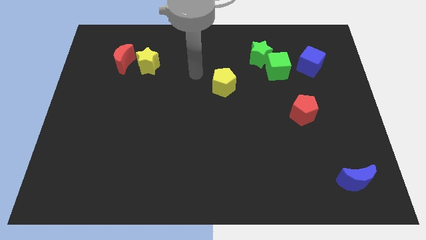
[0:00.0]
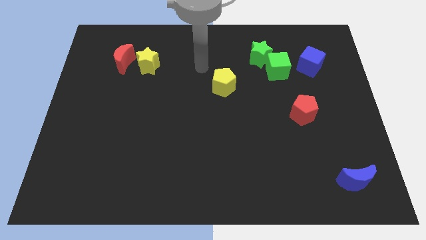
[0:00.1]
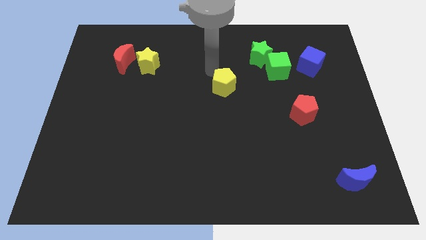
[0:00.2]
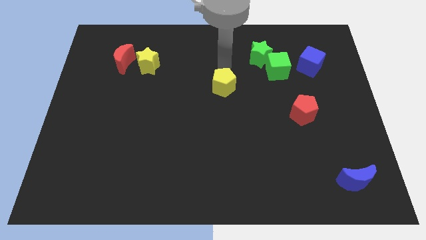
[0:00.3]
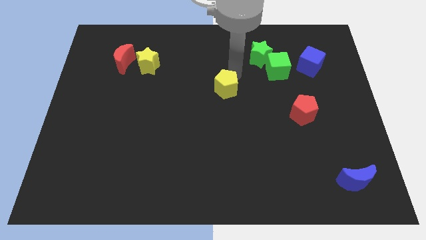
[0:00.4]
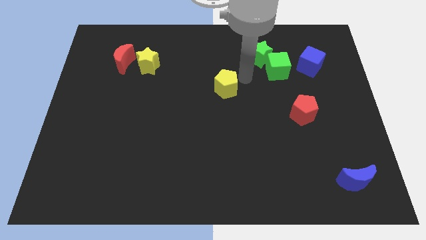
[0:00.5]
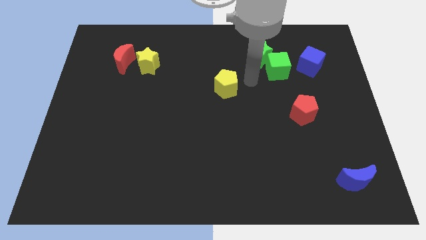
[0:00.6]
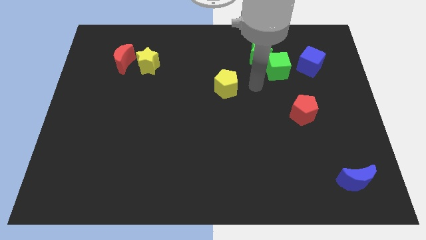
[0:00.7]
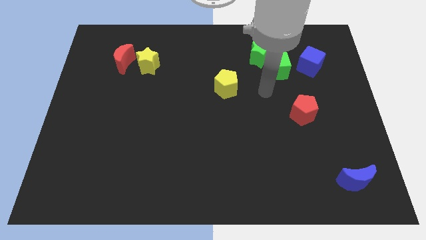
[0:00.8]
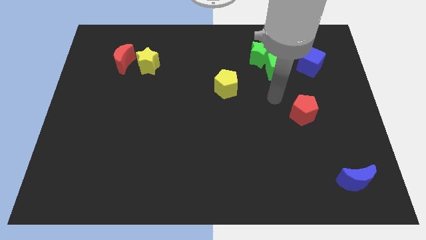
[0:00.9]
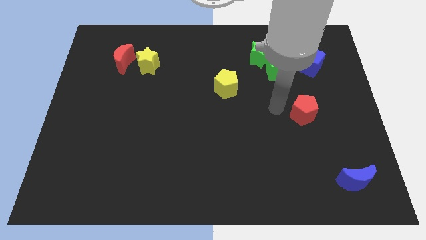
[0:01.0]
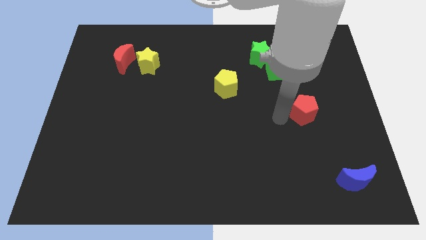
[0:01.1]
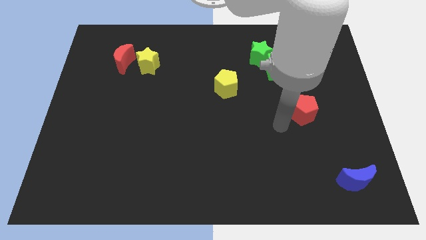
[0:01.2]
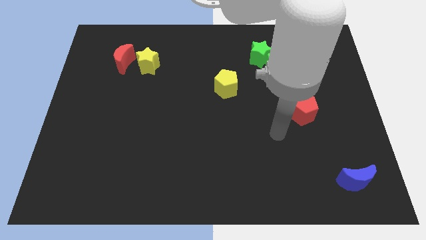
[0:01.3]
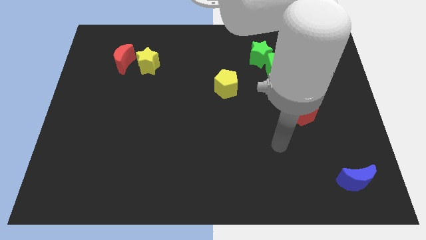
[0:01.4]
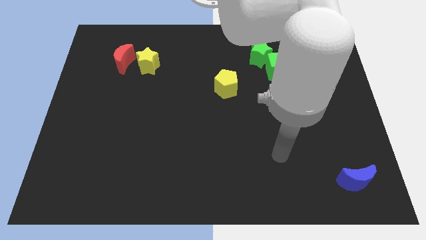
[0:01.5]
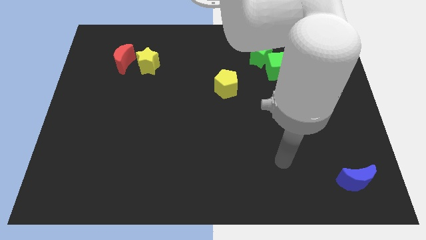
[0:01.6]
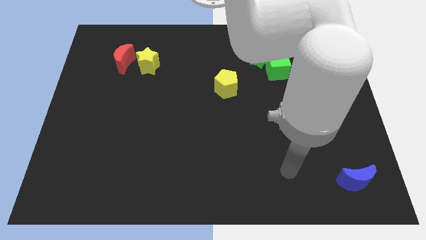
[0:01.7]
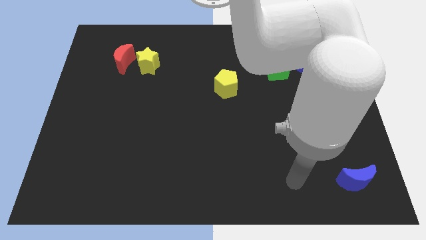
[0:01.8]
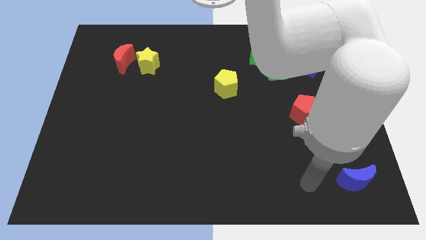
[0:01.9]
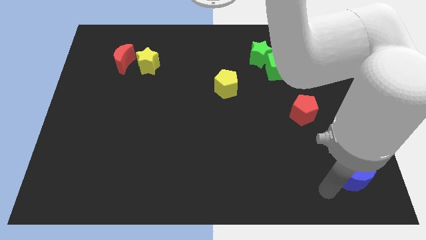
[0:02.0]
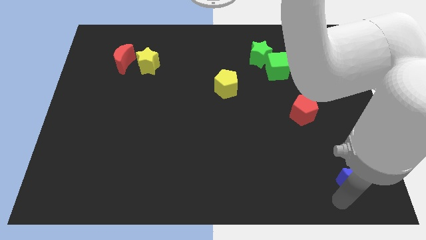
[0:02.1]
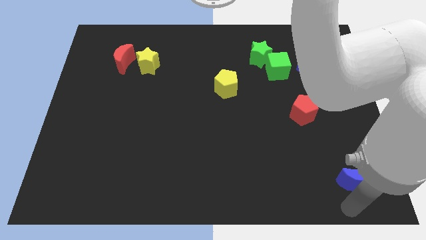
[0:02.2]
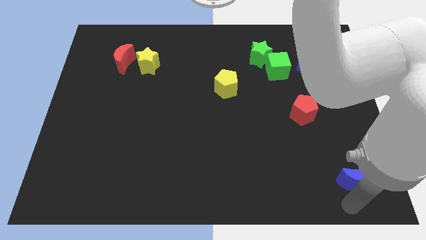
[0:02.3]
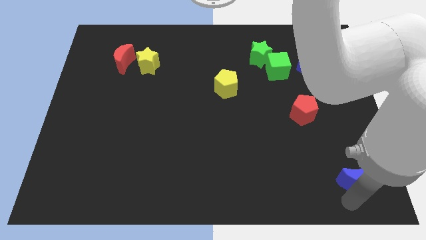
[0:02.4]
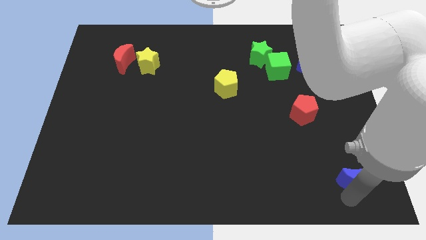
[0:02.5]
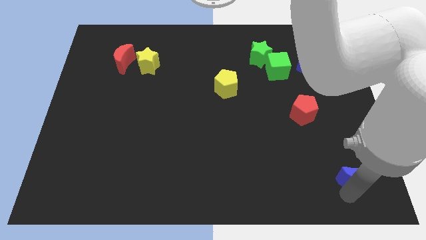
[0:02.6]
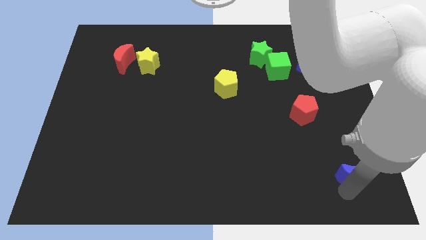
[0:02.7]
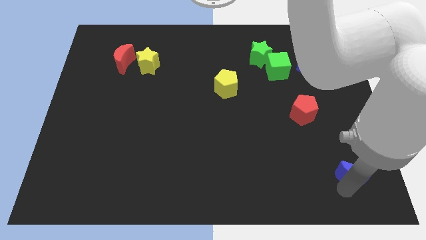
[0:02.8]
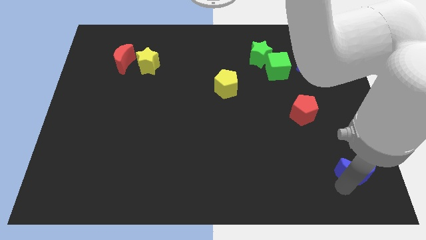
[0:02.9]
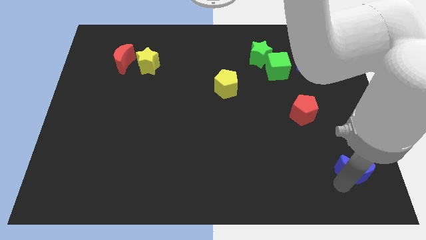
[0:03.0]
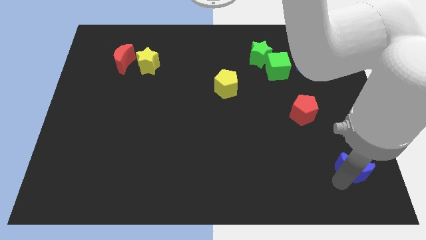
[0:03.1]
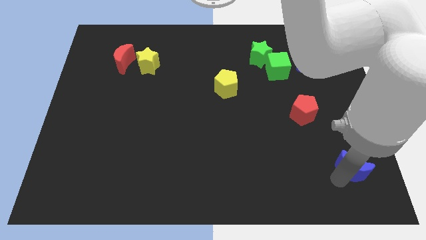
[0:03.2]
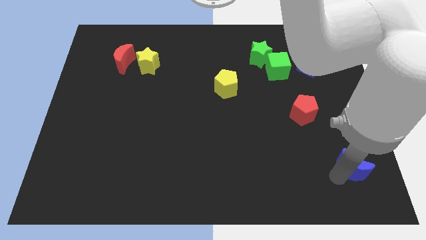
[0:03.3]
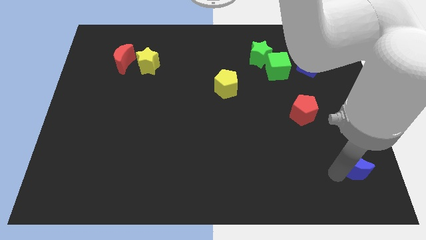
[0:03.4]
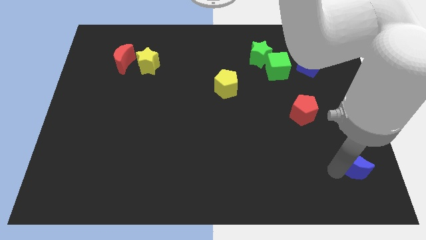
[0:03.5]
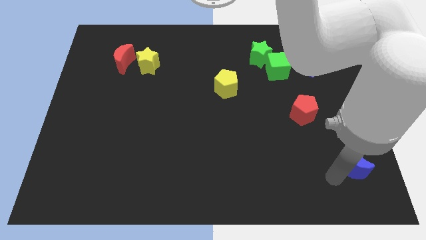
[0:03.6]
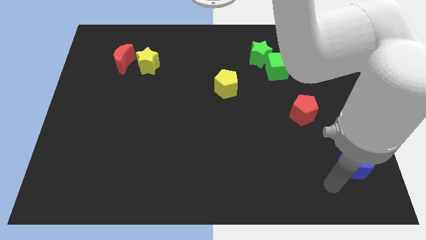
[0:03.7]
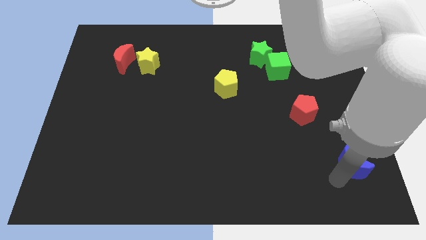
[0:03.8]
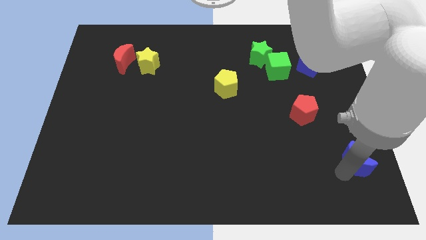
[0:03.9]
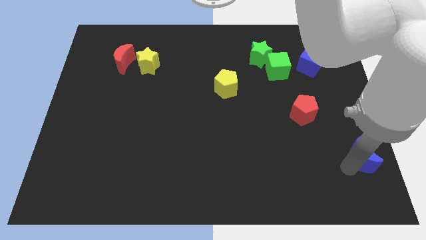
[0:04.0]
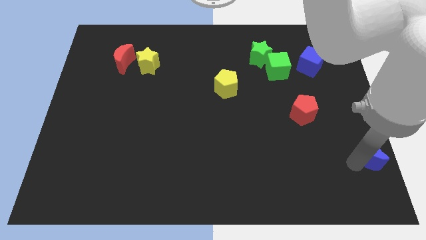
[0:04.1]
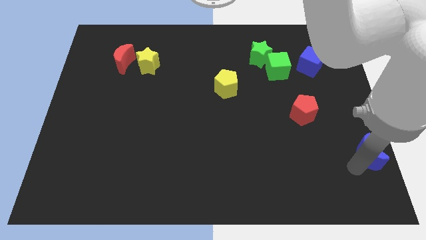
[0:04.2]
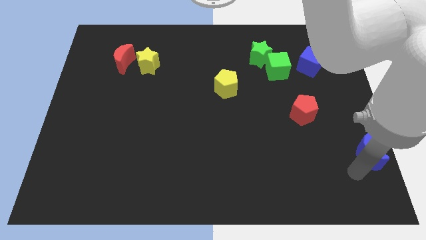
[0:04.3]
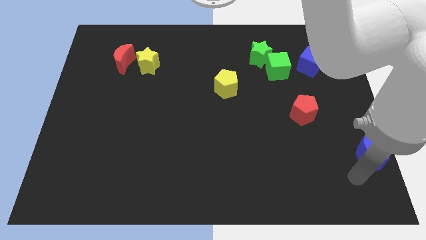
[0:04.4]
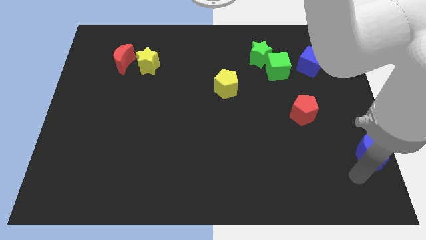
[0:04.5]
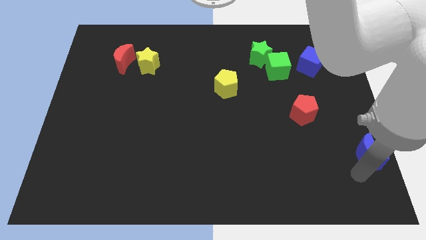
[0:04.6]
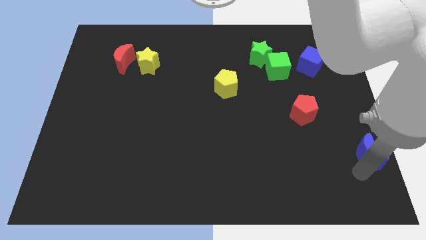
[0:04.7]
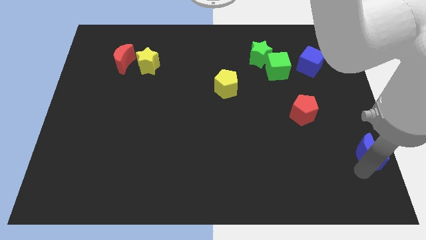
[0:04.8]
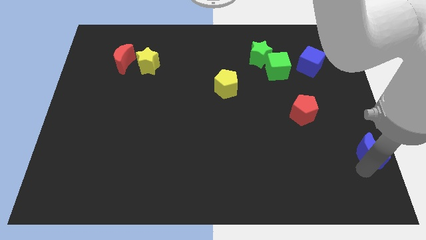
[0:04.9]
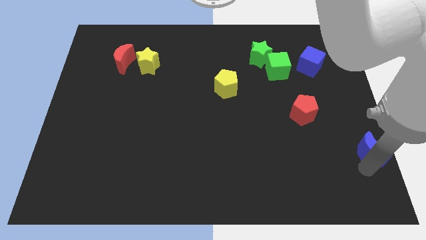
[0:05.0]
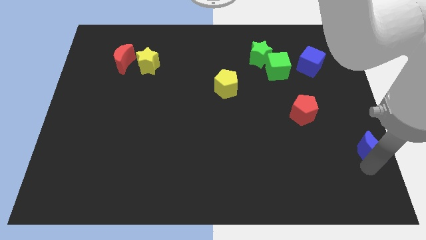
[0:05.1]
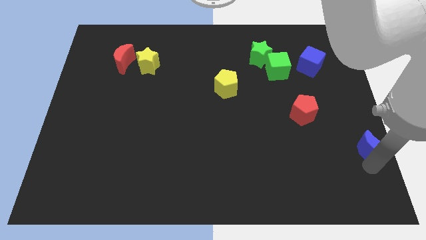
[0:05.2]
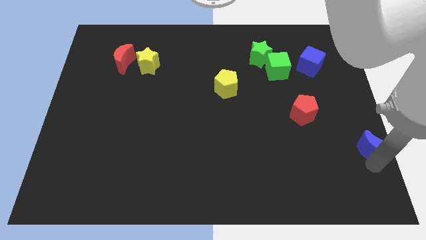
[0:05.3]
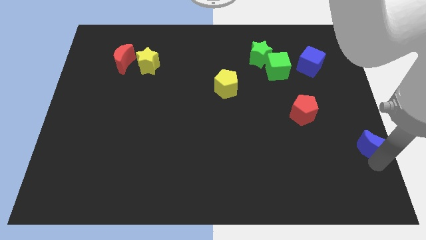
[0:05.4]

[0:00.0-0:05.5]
move the blue moon to the right side of the board

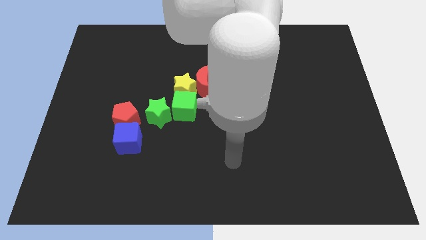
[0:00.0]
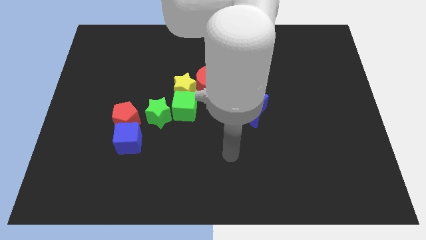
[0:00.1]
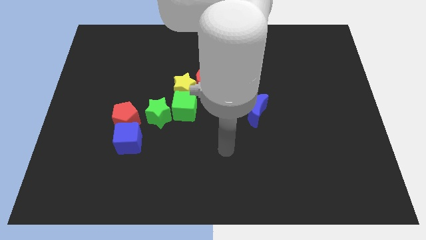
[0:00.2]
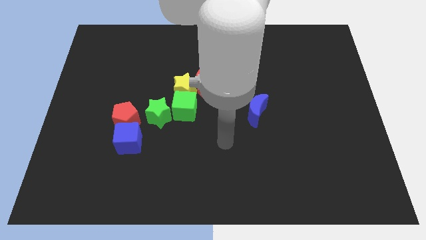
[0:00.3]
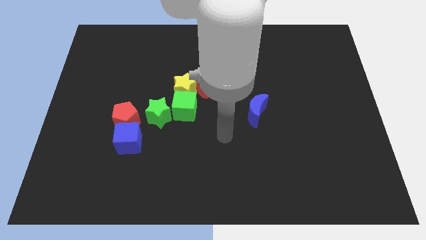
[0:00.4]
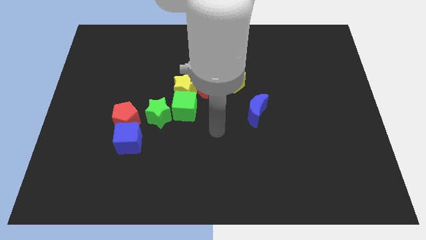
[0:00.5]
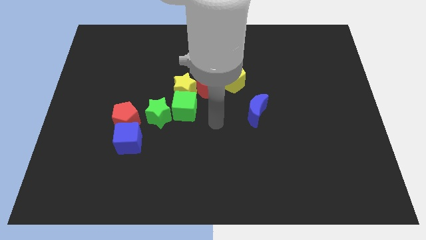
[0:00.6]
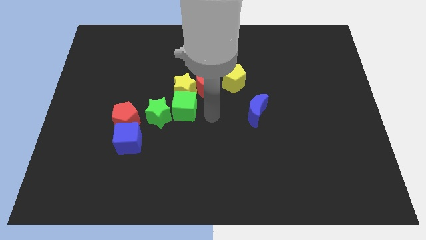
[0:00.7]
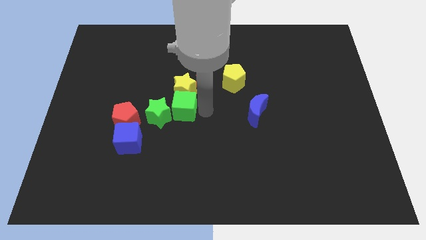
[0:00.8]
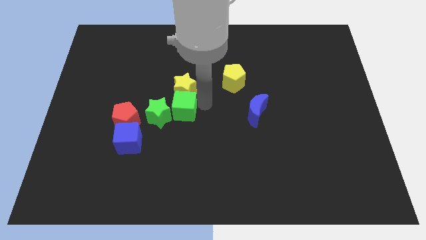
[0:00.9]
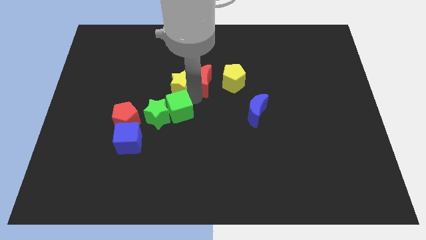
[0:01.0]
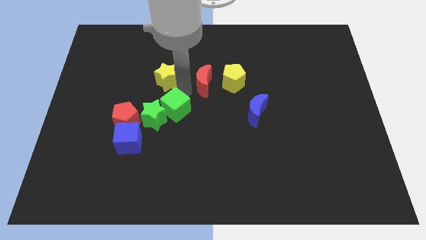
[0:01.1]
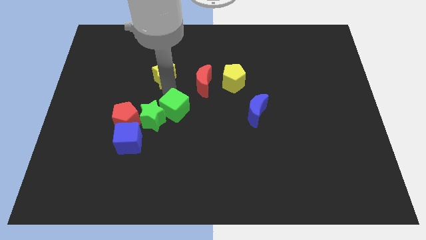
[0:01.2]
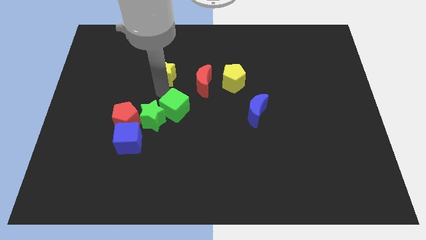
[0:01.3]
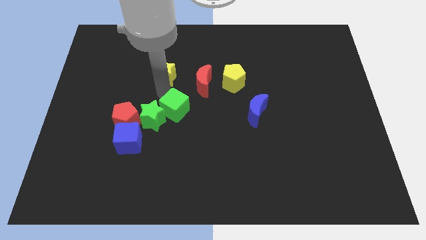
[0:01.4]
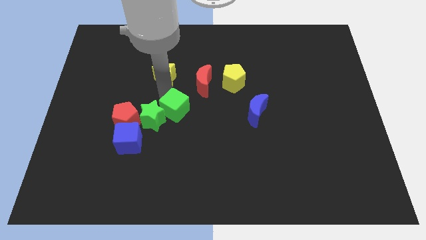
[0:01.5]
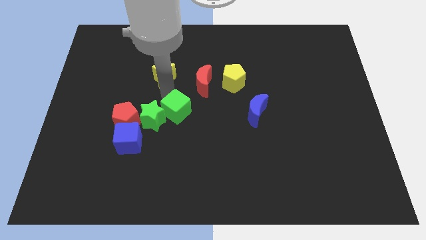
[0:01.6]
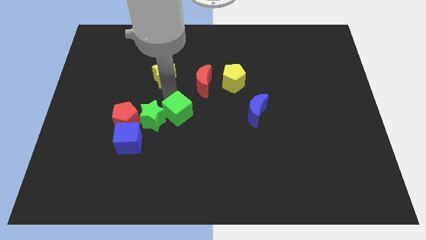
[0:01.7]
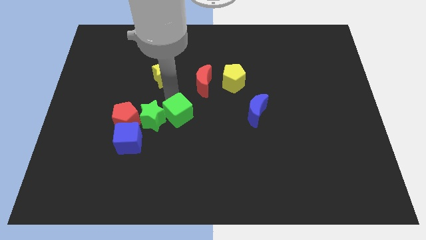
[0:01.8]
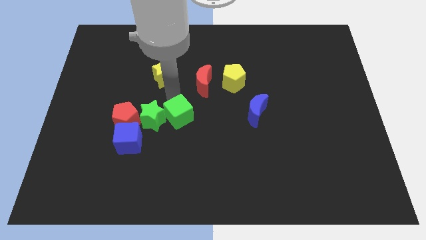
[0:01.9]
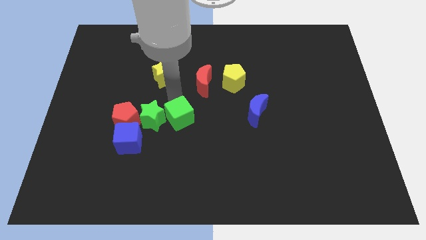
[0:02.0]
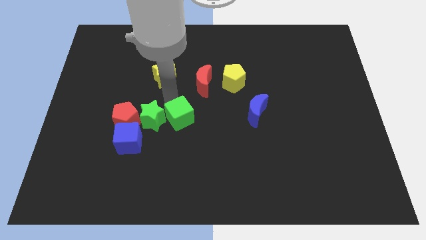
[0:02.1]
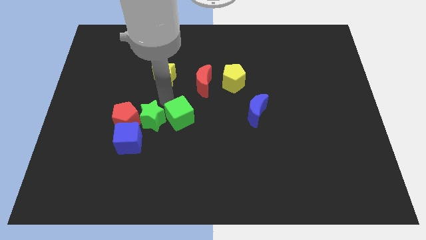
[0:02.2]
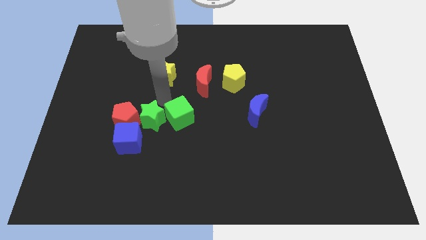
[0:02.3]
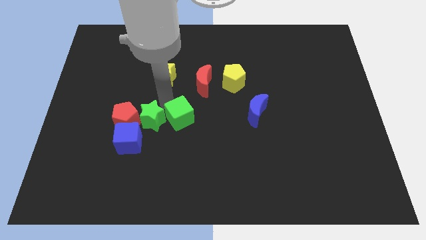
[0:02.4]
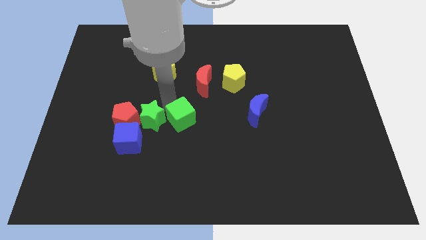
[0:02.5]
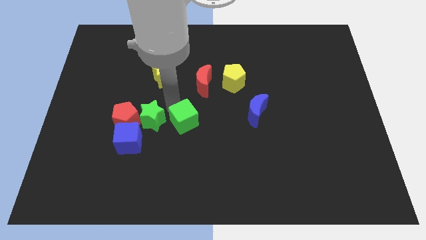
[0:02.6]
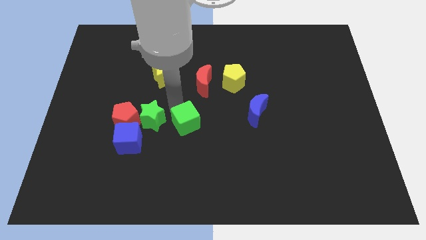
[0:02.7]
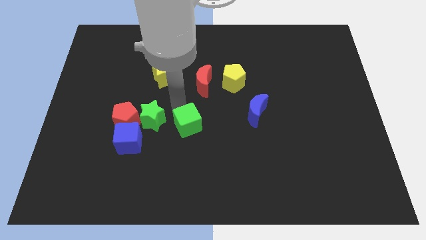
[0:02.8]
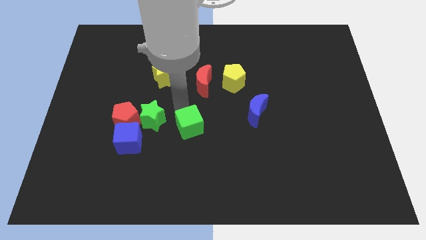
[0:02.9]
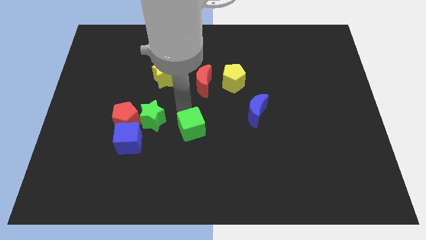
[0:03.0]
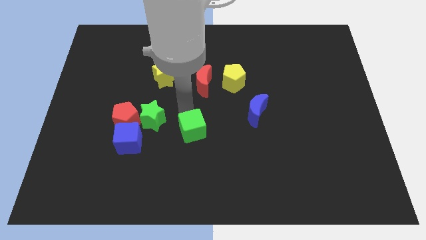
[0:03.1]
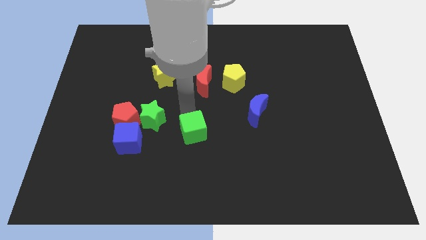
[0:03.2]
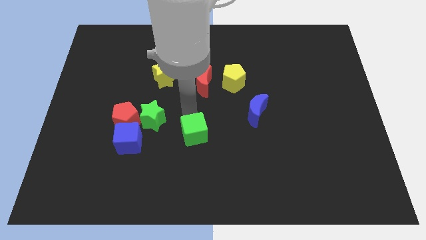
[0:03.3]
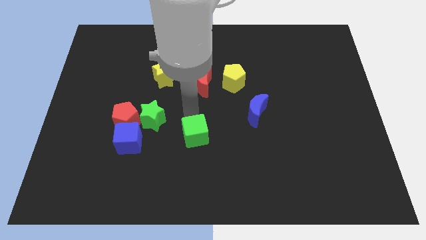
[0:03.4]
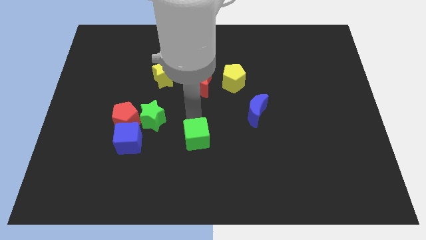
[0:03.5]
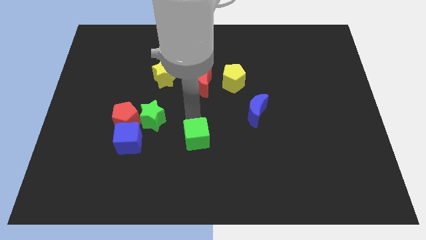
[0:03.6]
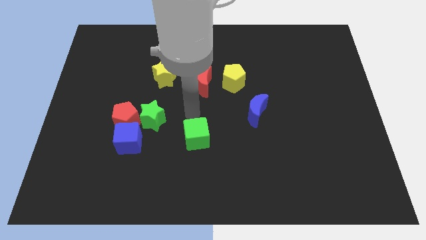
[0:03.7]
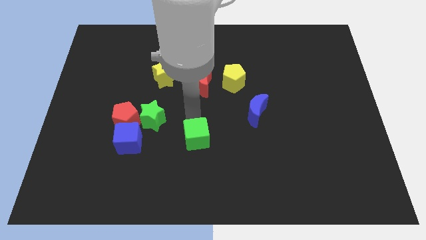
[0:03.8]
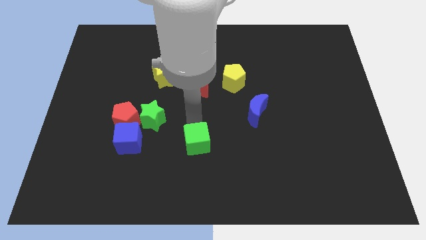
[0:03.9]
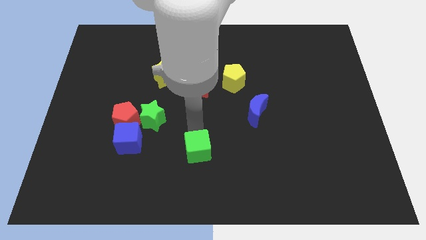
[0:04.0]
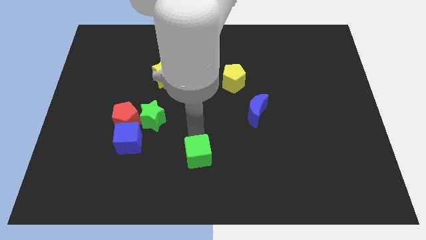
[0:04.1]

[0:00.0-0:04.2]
put the green cube to the bottom side
